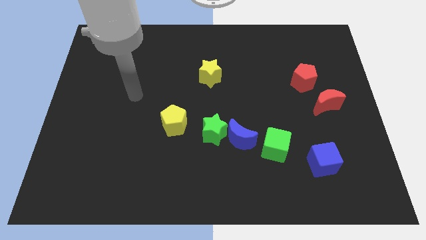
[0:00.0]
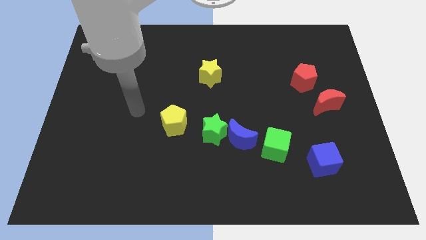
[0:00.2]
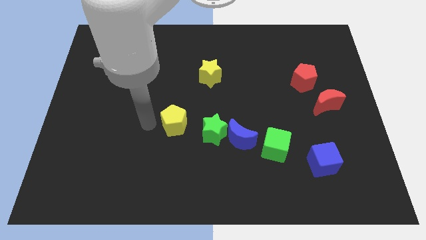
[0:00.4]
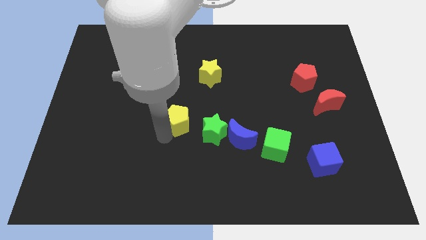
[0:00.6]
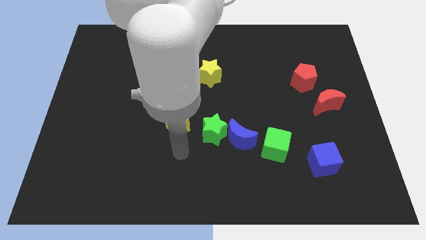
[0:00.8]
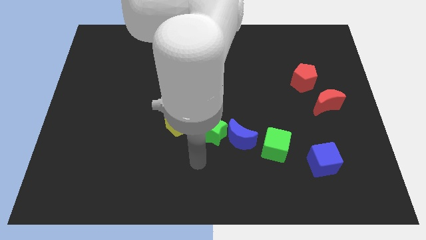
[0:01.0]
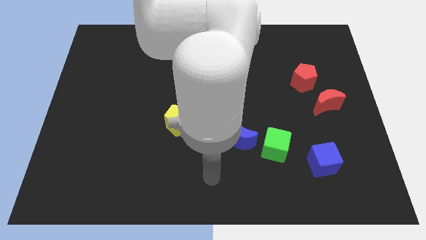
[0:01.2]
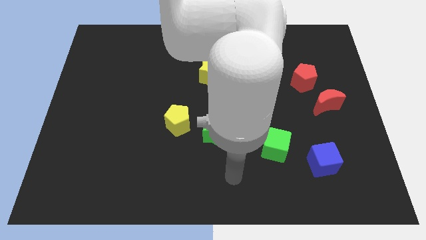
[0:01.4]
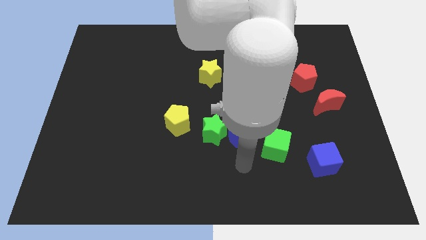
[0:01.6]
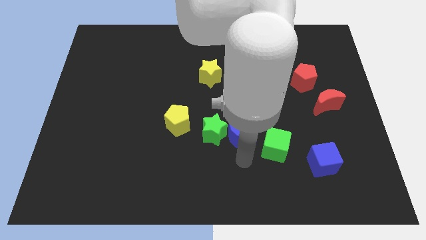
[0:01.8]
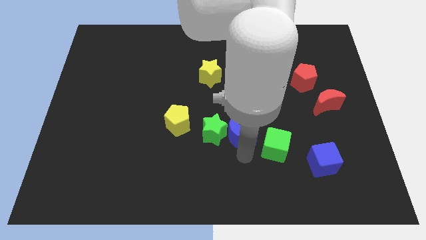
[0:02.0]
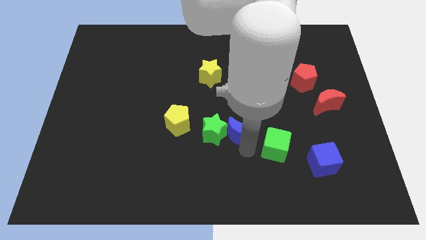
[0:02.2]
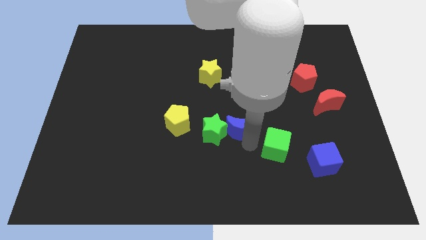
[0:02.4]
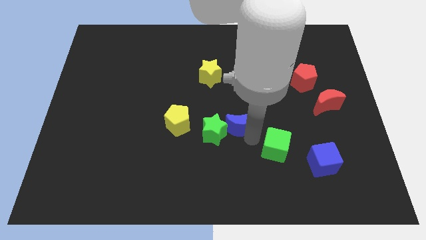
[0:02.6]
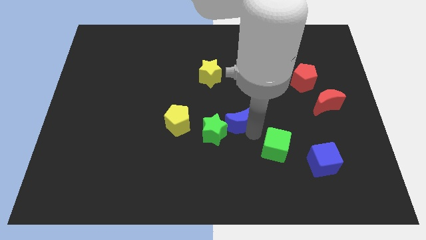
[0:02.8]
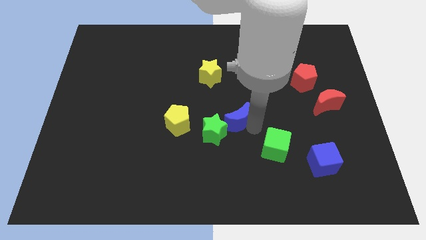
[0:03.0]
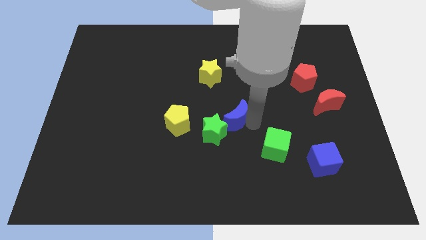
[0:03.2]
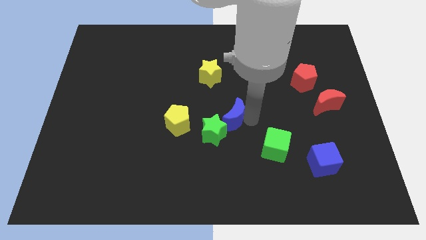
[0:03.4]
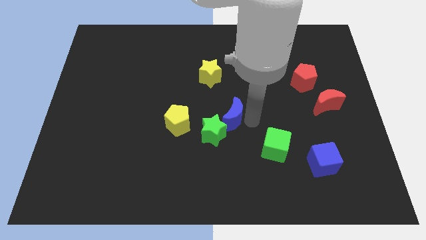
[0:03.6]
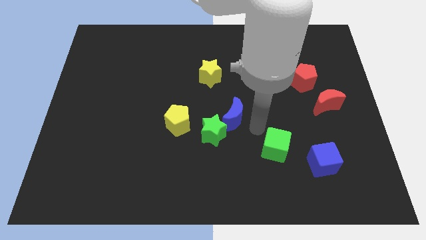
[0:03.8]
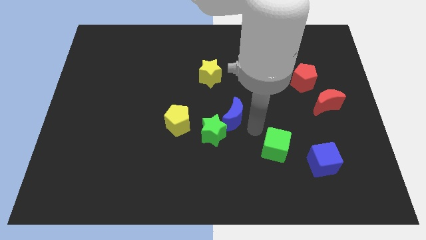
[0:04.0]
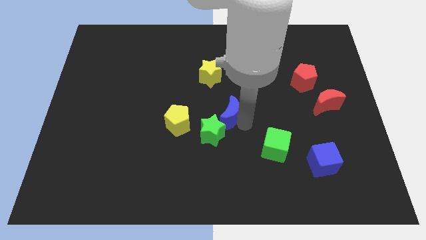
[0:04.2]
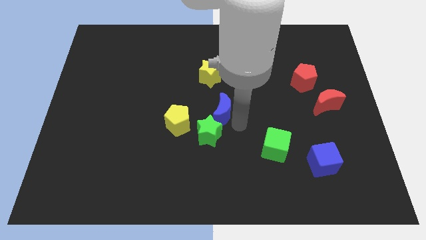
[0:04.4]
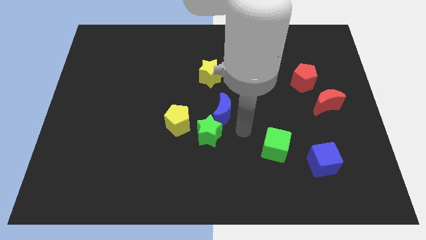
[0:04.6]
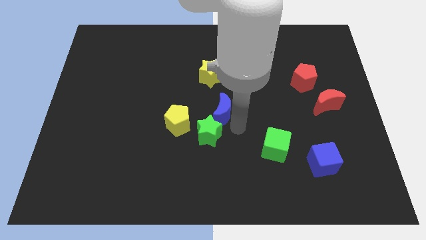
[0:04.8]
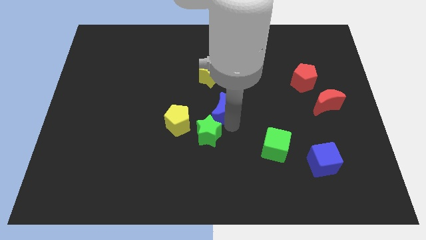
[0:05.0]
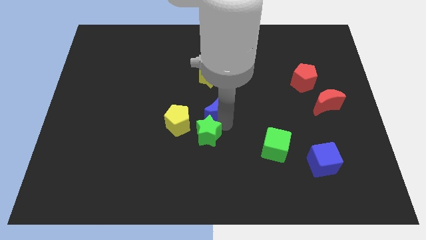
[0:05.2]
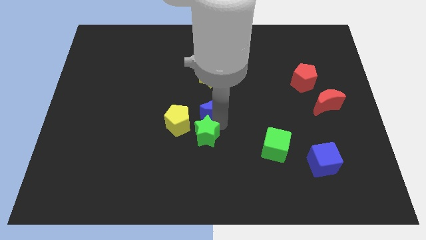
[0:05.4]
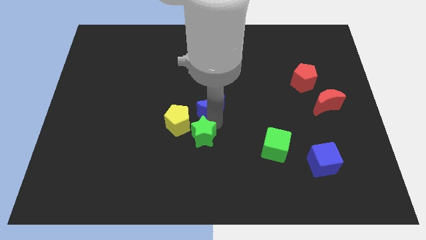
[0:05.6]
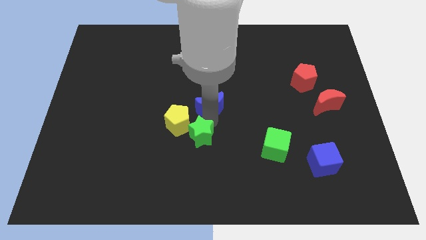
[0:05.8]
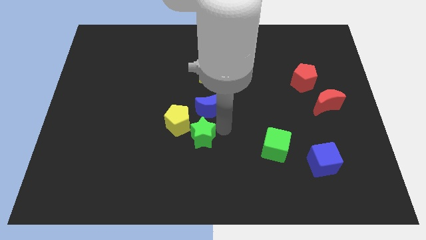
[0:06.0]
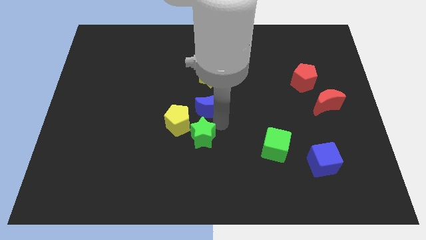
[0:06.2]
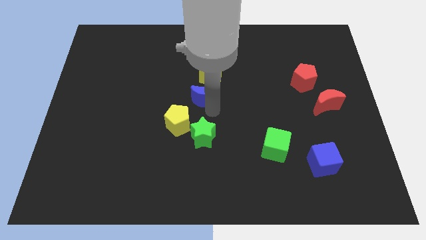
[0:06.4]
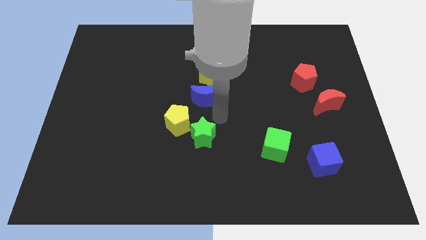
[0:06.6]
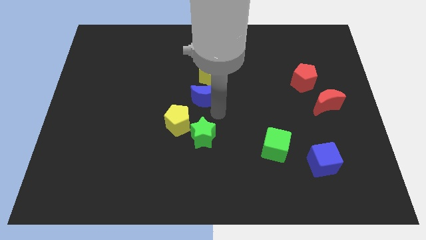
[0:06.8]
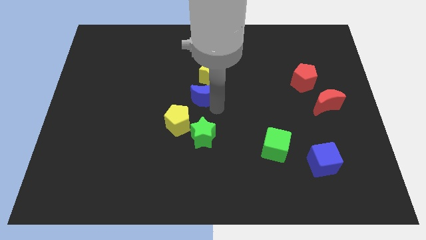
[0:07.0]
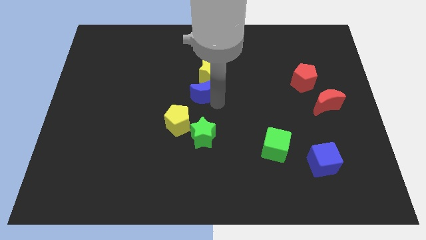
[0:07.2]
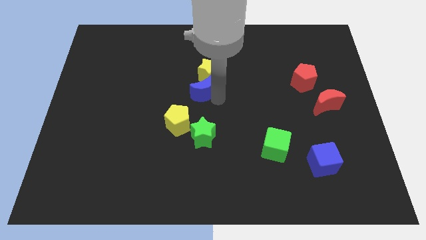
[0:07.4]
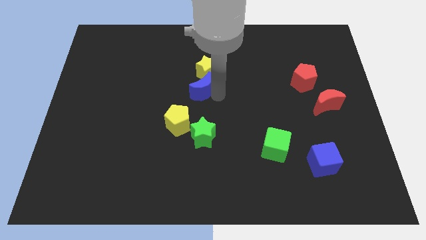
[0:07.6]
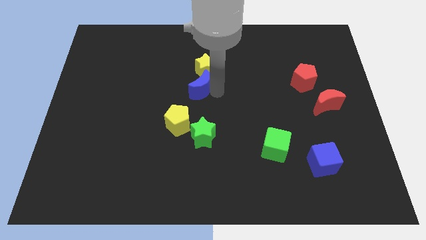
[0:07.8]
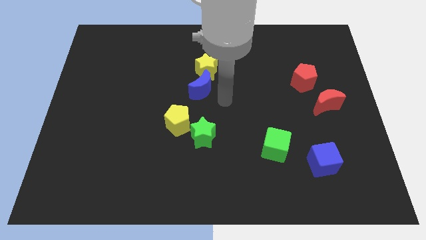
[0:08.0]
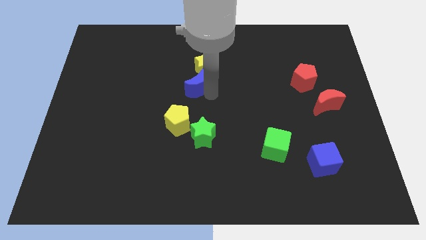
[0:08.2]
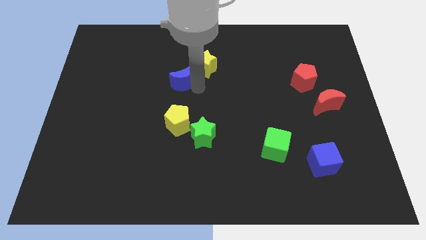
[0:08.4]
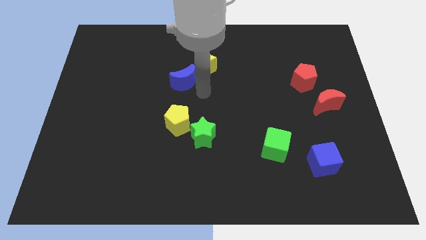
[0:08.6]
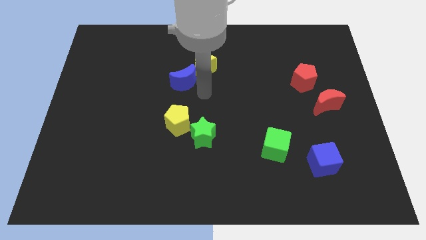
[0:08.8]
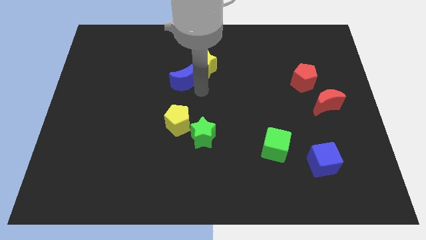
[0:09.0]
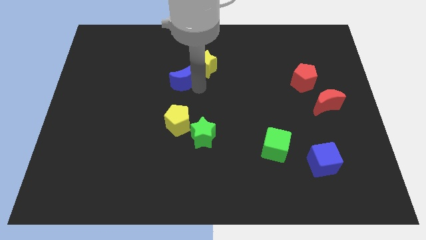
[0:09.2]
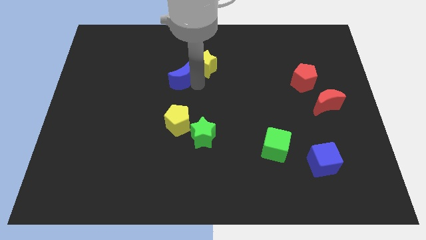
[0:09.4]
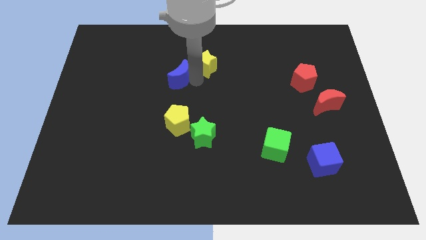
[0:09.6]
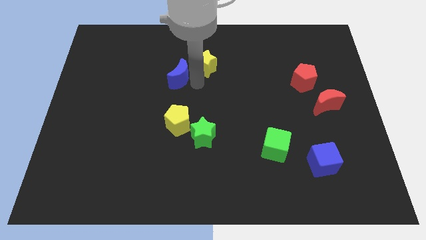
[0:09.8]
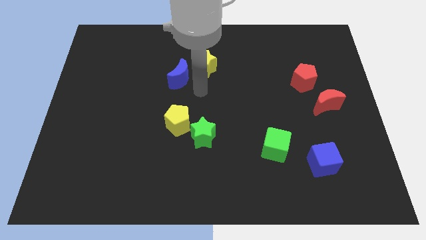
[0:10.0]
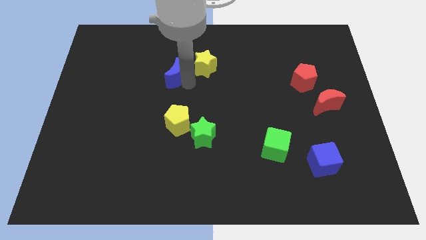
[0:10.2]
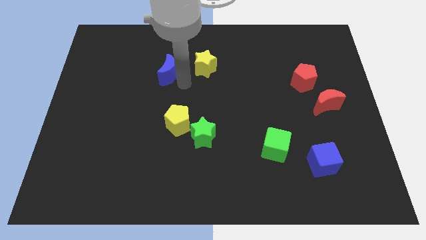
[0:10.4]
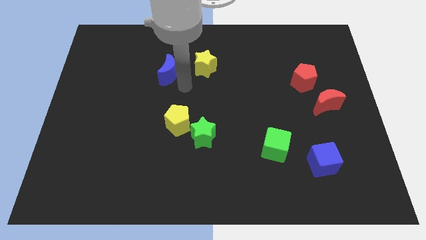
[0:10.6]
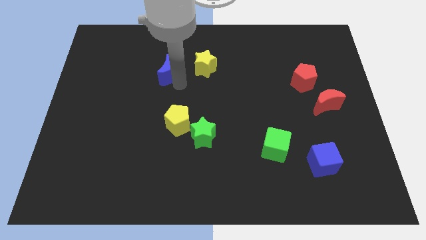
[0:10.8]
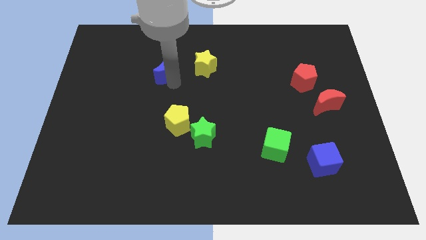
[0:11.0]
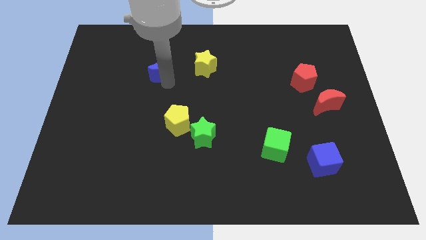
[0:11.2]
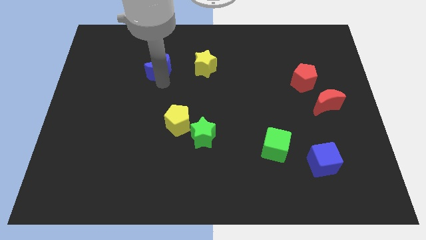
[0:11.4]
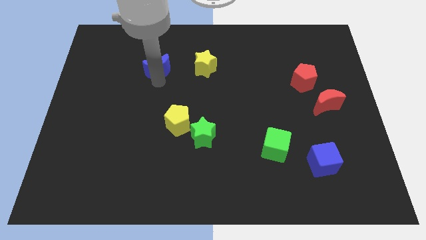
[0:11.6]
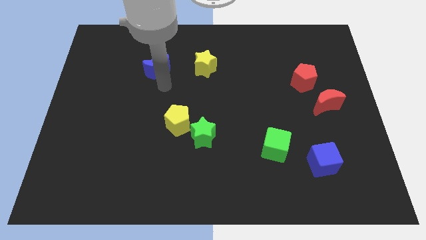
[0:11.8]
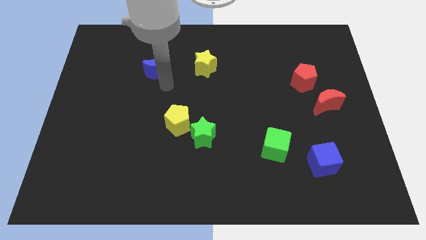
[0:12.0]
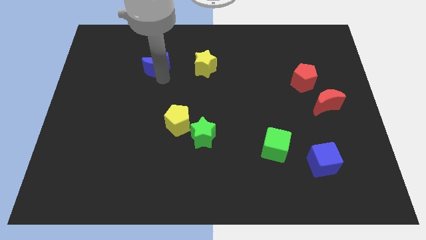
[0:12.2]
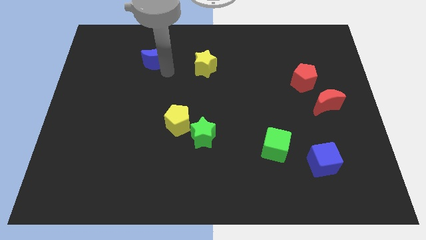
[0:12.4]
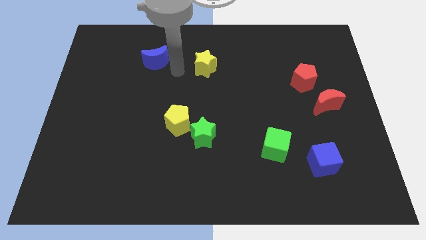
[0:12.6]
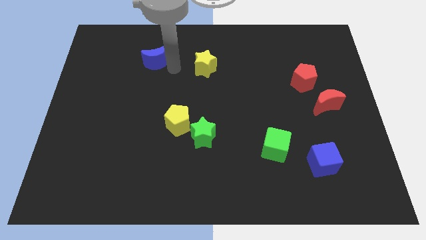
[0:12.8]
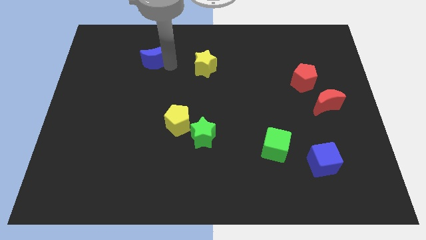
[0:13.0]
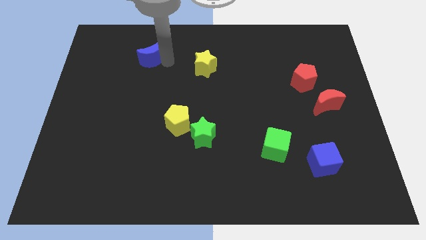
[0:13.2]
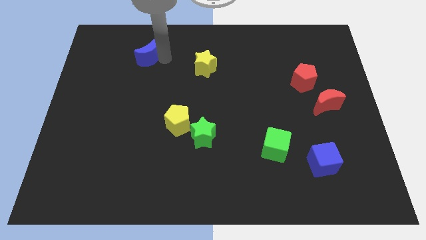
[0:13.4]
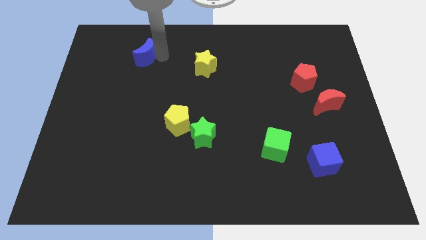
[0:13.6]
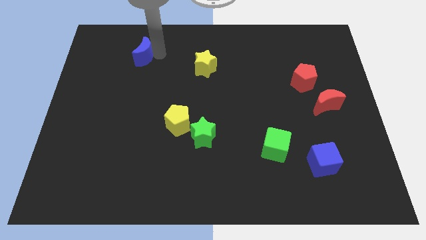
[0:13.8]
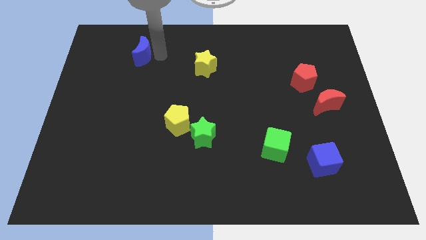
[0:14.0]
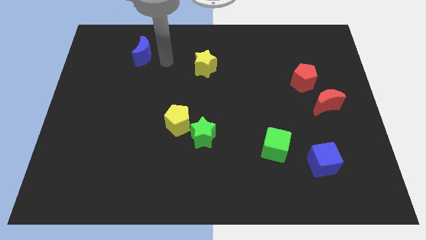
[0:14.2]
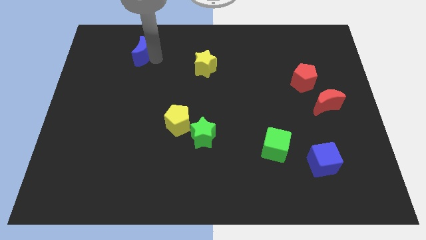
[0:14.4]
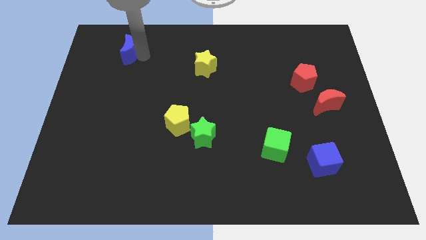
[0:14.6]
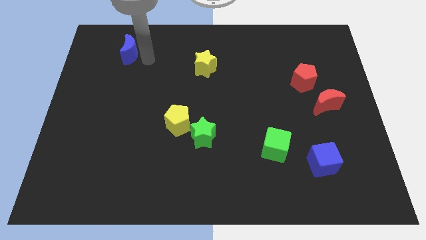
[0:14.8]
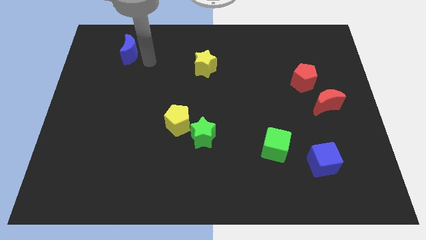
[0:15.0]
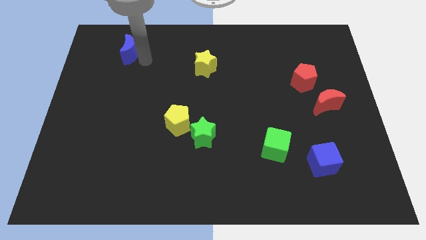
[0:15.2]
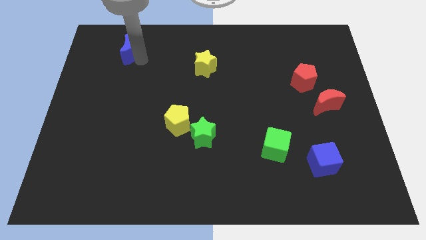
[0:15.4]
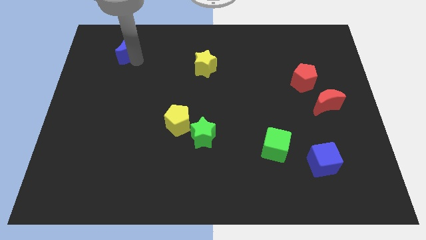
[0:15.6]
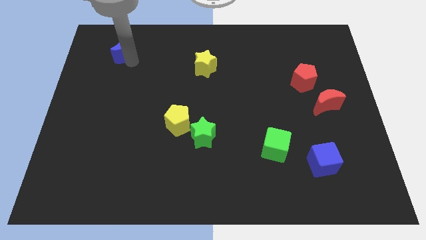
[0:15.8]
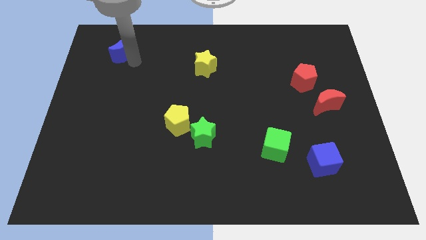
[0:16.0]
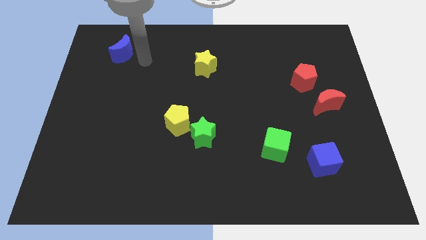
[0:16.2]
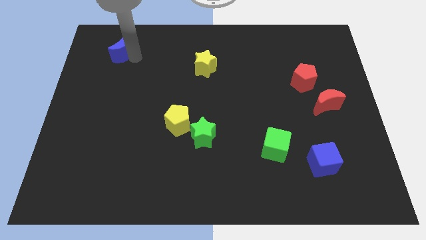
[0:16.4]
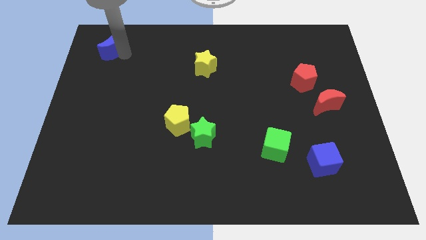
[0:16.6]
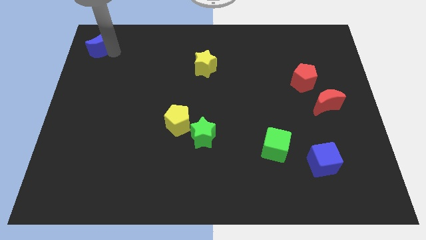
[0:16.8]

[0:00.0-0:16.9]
slide the blue moon to the top left of the board
